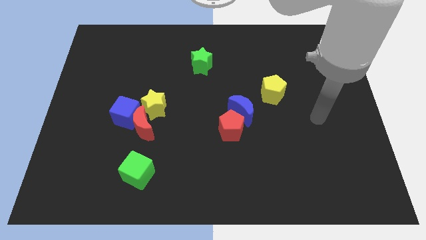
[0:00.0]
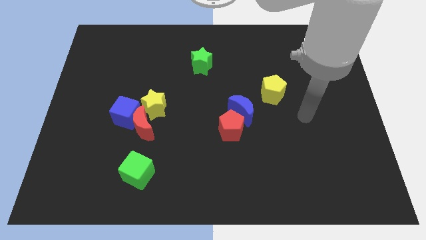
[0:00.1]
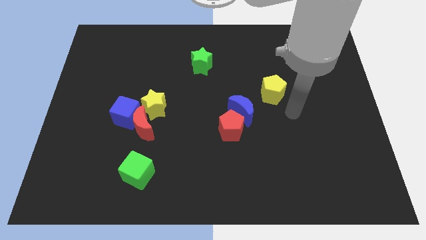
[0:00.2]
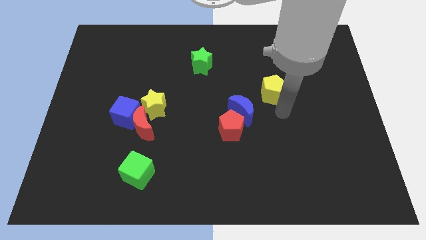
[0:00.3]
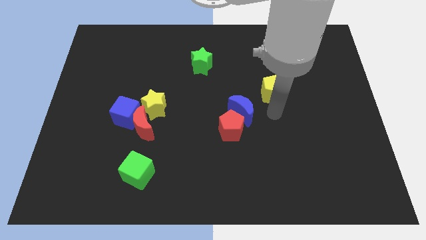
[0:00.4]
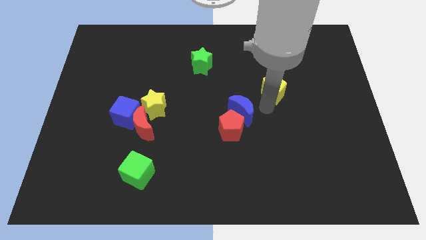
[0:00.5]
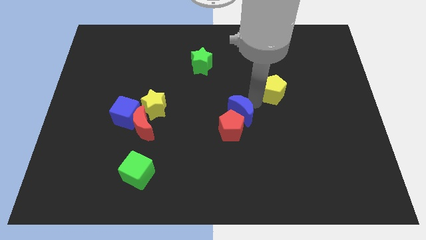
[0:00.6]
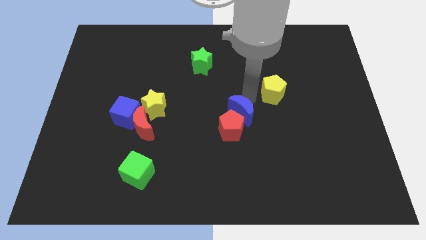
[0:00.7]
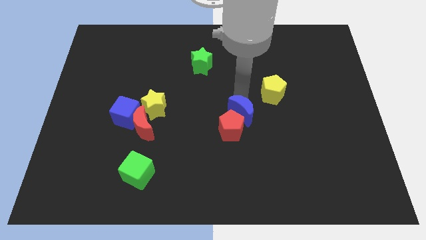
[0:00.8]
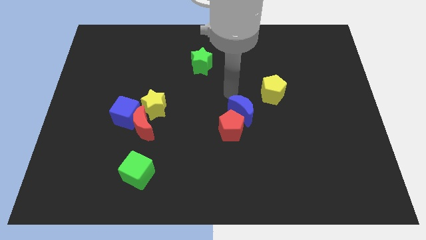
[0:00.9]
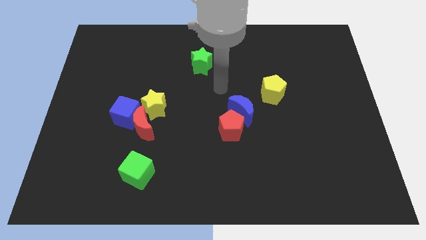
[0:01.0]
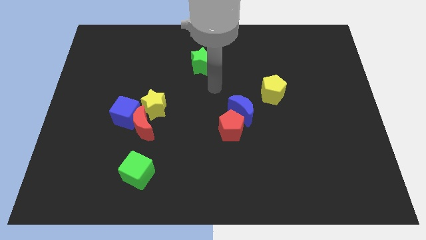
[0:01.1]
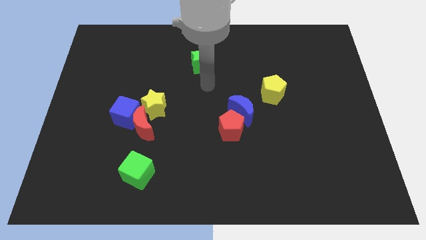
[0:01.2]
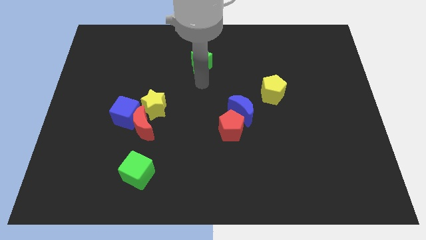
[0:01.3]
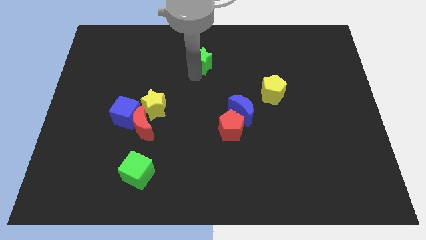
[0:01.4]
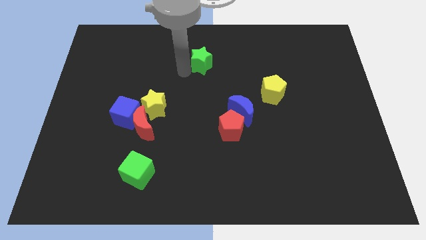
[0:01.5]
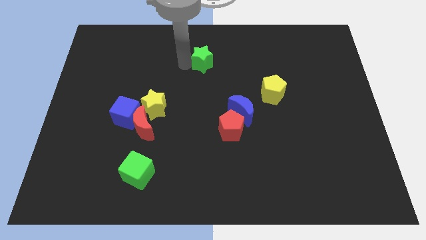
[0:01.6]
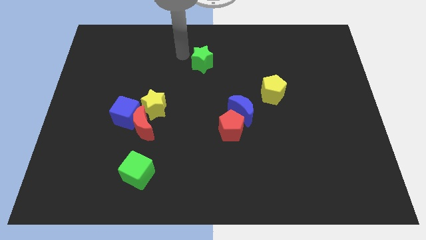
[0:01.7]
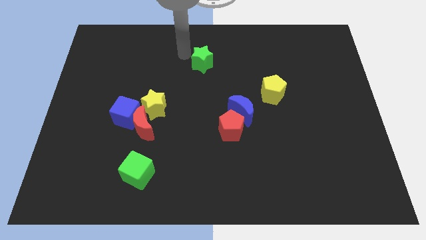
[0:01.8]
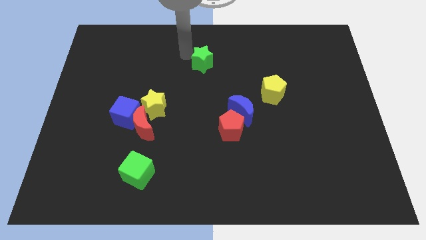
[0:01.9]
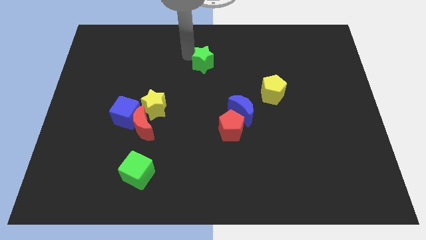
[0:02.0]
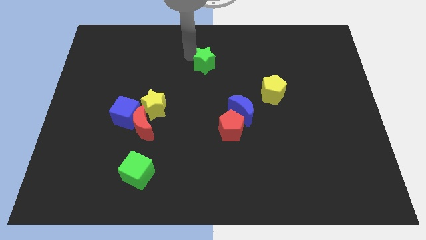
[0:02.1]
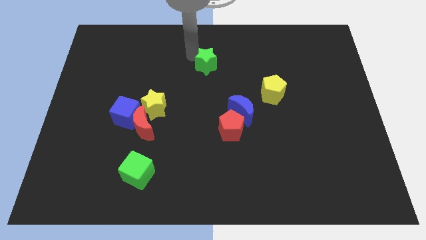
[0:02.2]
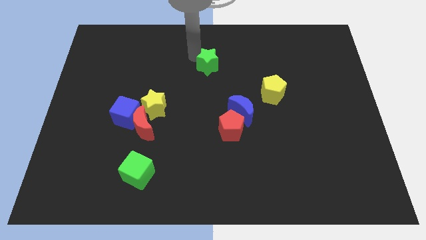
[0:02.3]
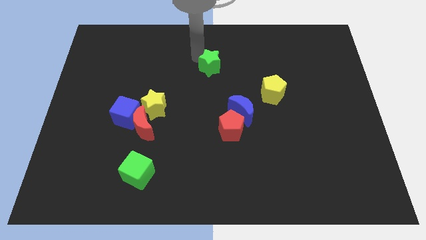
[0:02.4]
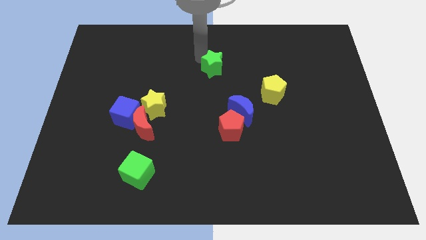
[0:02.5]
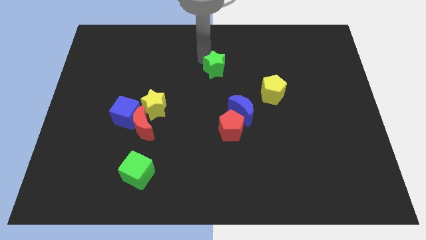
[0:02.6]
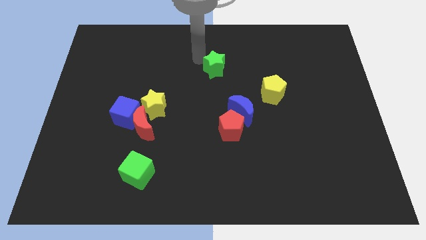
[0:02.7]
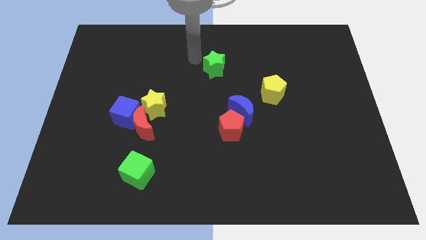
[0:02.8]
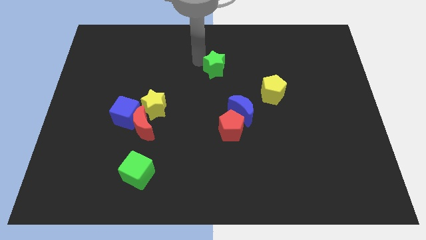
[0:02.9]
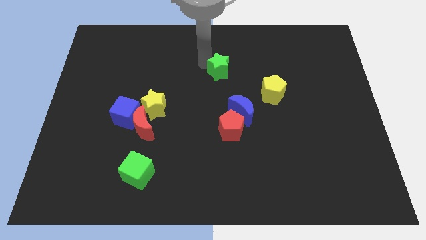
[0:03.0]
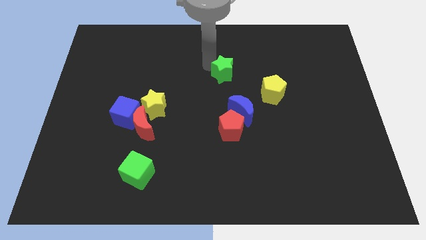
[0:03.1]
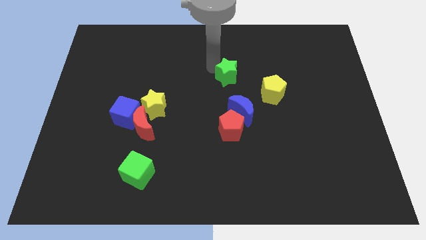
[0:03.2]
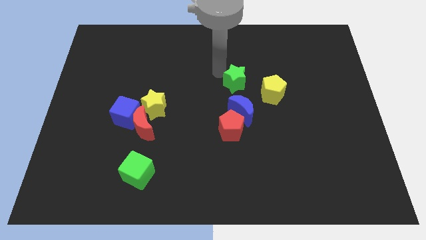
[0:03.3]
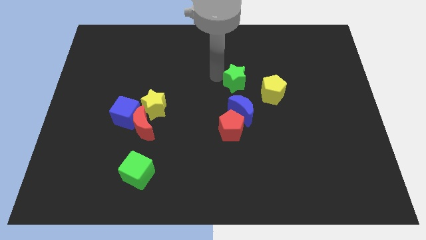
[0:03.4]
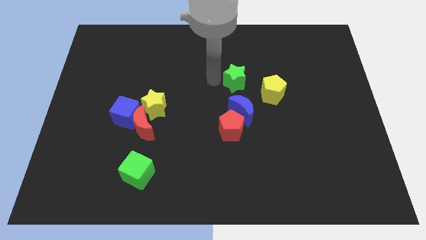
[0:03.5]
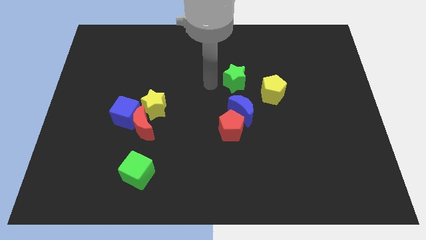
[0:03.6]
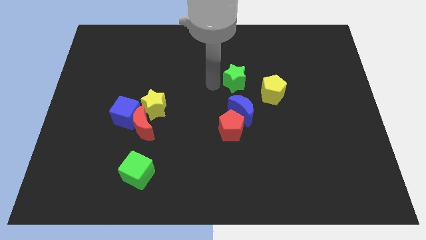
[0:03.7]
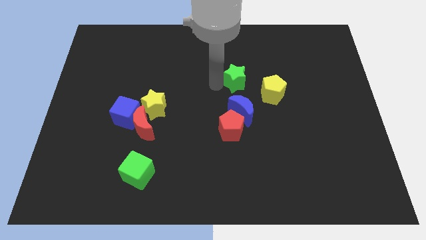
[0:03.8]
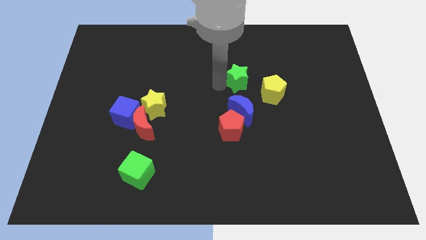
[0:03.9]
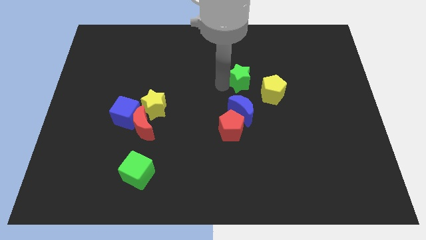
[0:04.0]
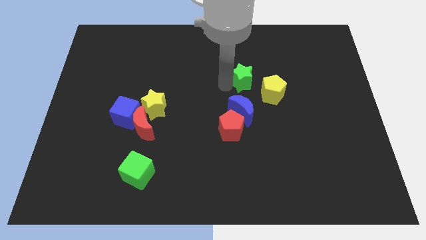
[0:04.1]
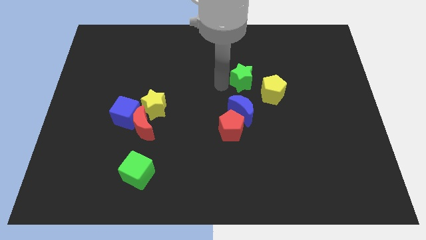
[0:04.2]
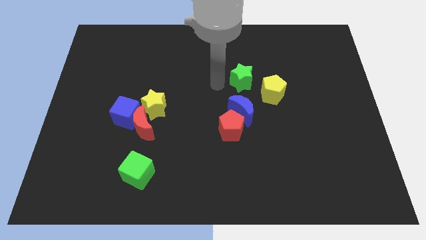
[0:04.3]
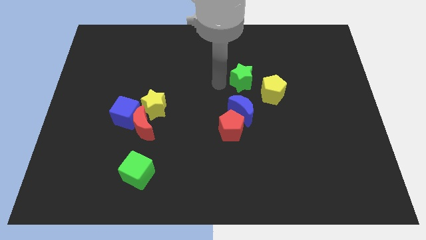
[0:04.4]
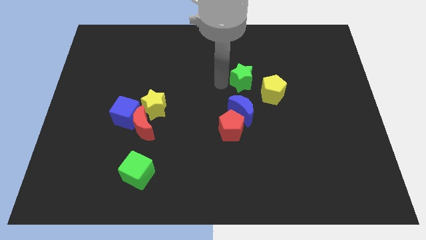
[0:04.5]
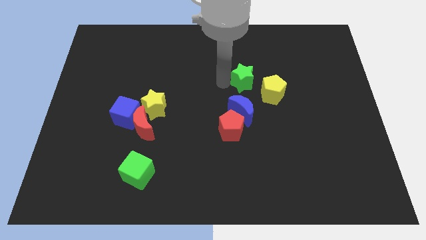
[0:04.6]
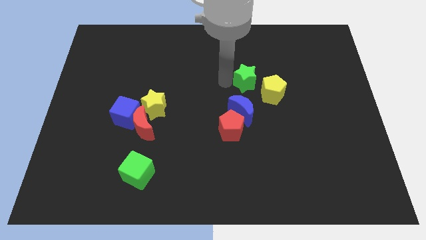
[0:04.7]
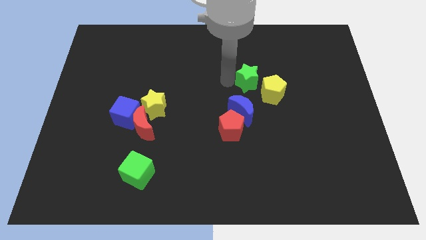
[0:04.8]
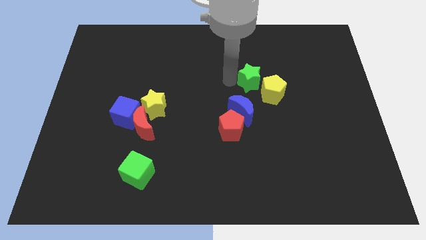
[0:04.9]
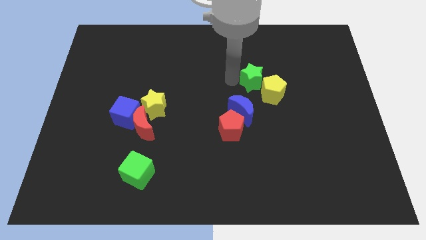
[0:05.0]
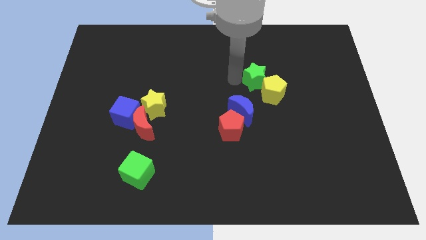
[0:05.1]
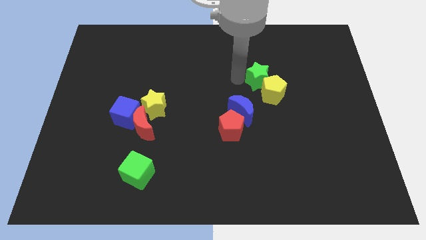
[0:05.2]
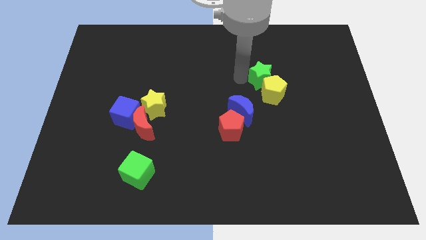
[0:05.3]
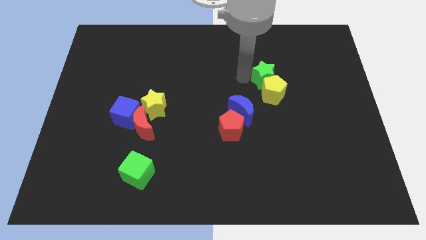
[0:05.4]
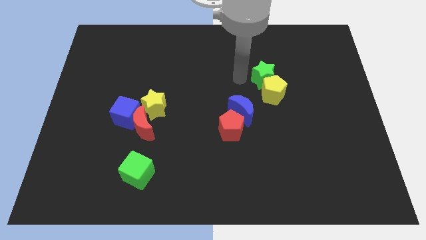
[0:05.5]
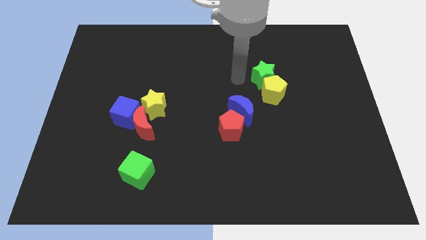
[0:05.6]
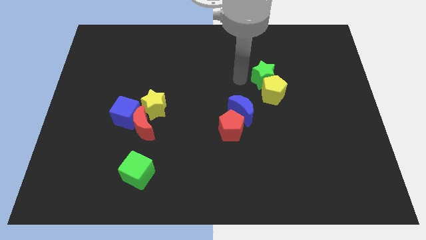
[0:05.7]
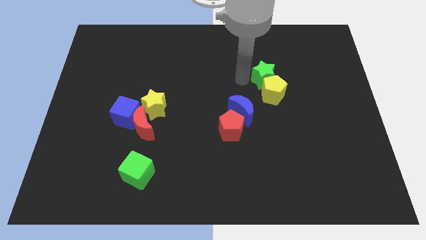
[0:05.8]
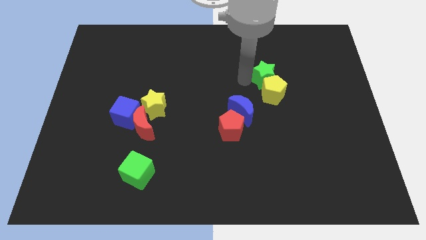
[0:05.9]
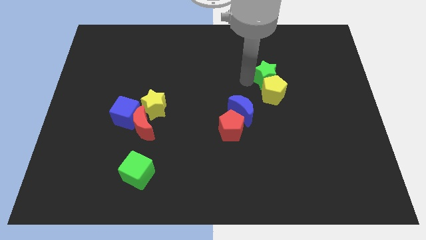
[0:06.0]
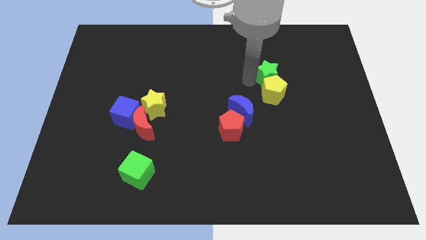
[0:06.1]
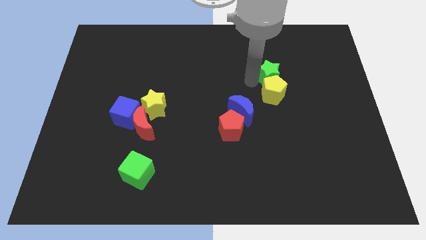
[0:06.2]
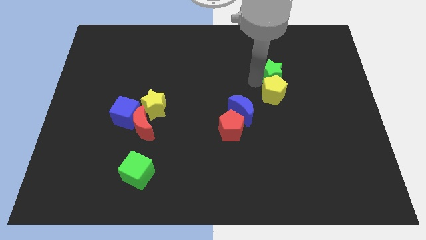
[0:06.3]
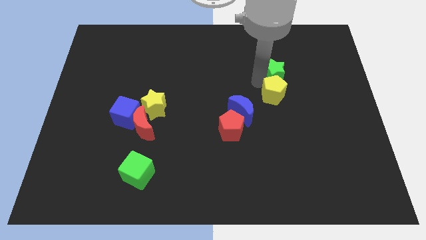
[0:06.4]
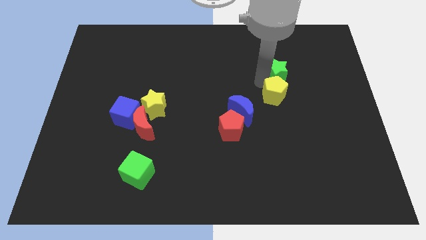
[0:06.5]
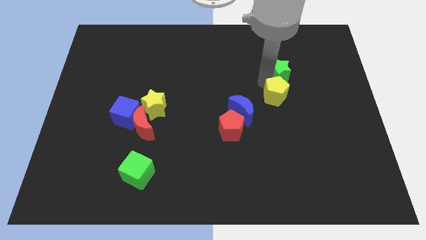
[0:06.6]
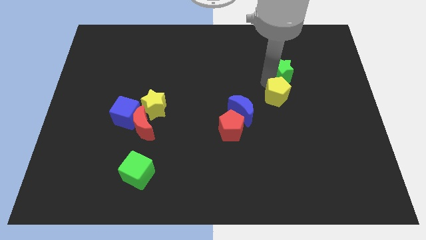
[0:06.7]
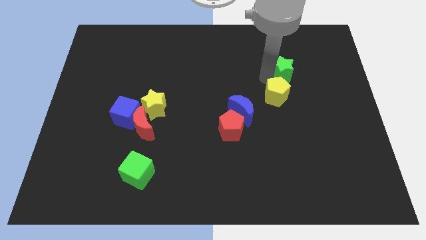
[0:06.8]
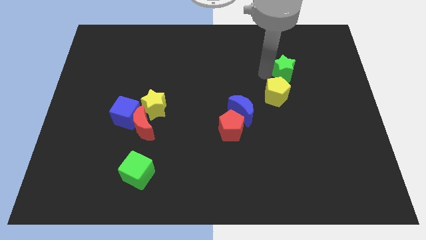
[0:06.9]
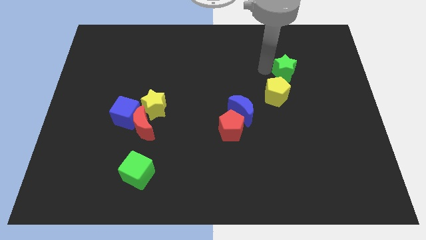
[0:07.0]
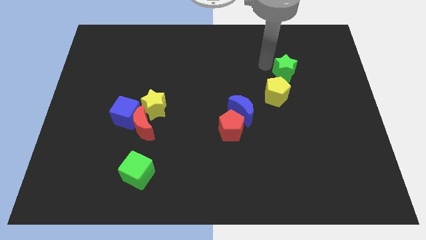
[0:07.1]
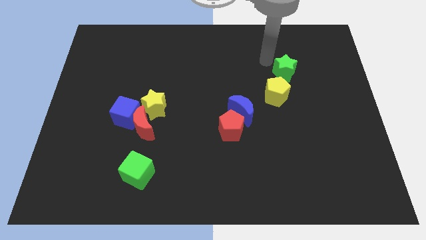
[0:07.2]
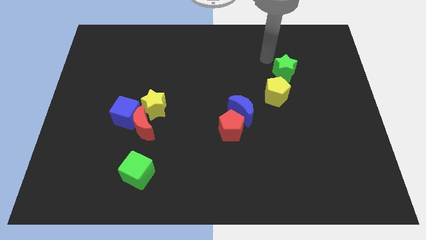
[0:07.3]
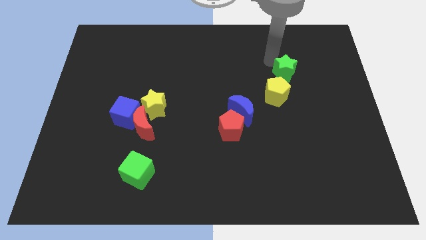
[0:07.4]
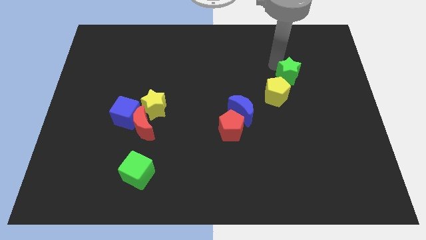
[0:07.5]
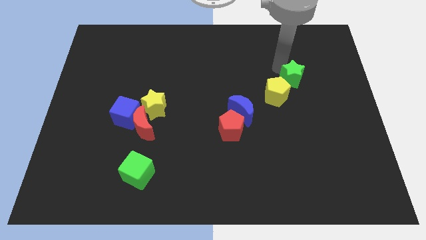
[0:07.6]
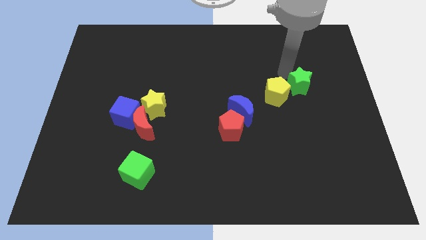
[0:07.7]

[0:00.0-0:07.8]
move the green star just right of the yellow pentagon
